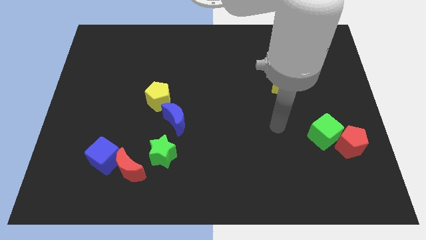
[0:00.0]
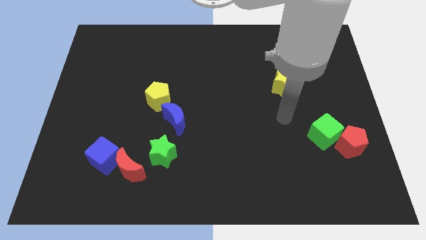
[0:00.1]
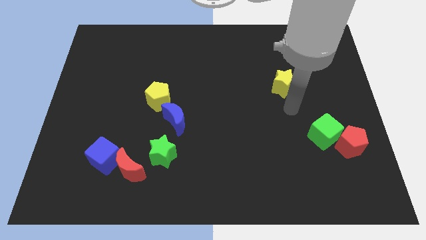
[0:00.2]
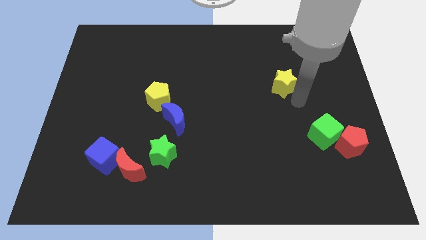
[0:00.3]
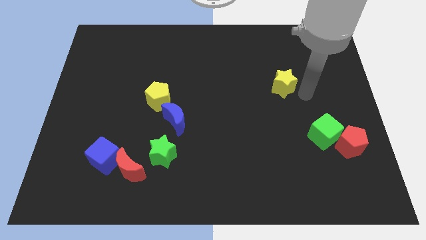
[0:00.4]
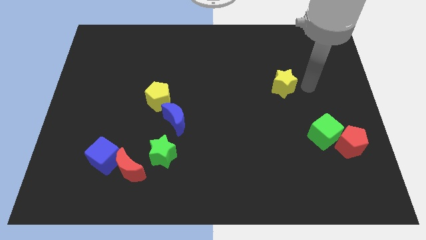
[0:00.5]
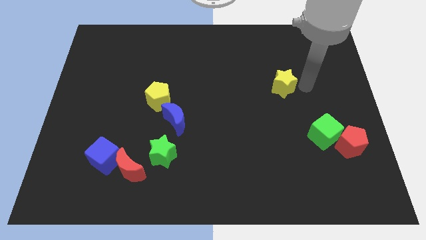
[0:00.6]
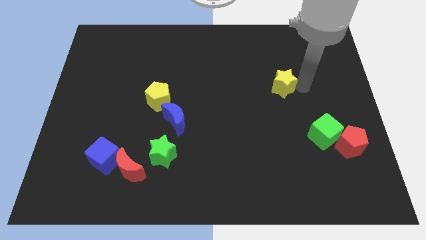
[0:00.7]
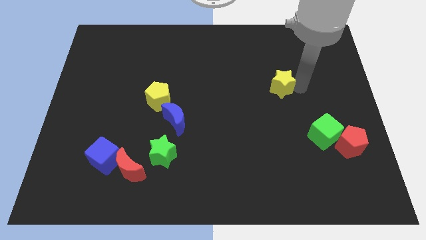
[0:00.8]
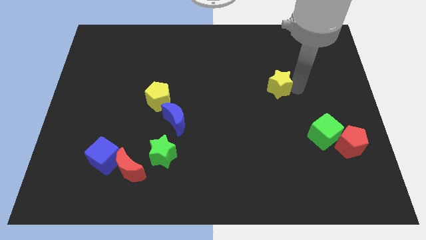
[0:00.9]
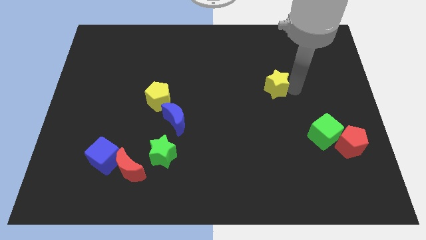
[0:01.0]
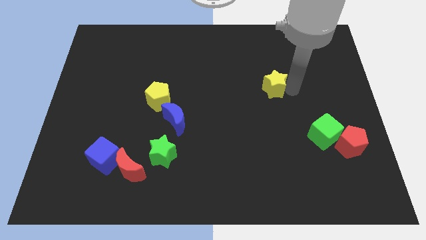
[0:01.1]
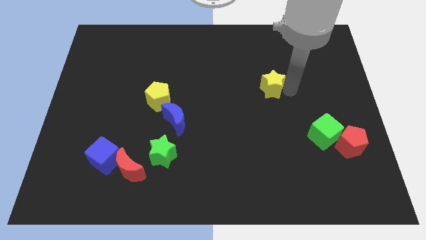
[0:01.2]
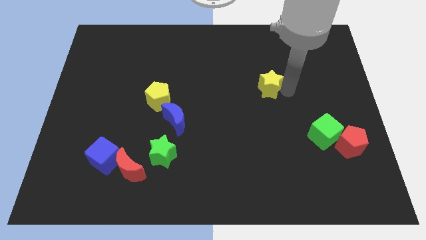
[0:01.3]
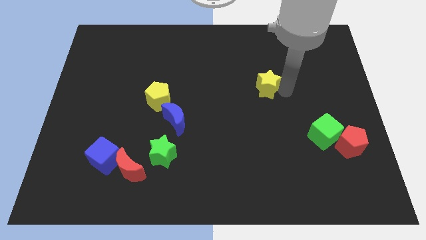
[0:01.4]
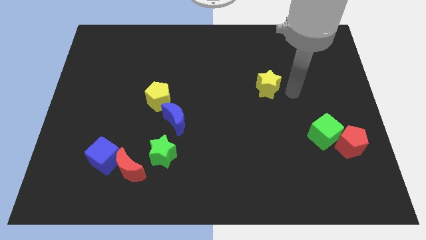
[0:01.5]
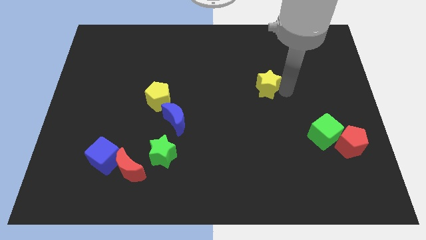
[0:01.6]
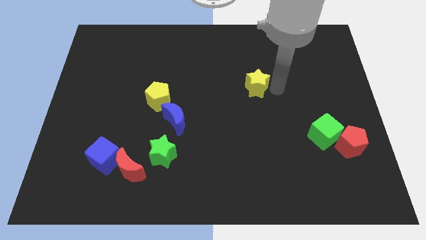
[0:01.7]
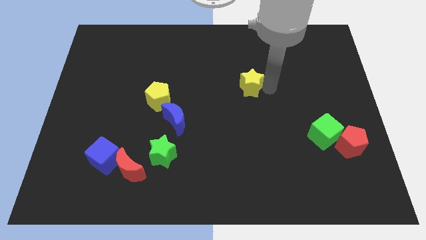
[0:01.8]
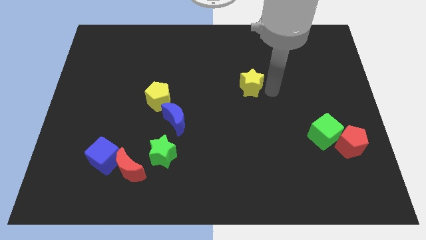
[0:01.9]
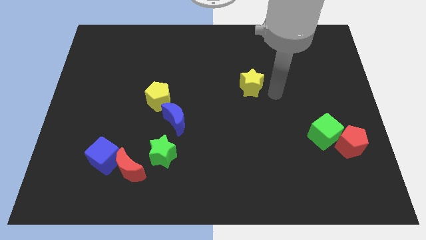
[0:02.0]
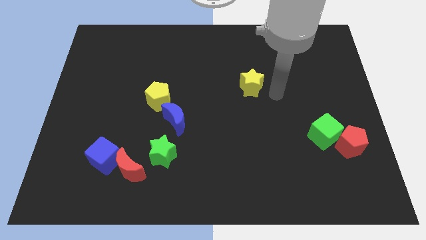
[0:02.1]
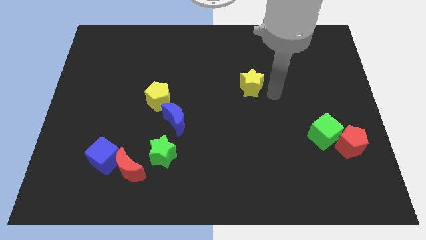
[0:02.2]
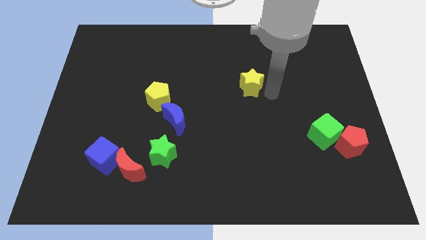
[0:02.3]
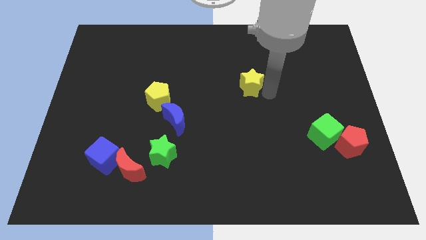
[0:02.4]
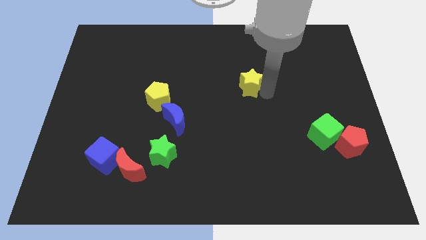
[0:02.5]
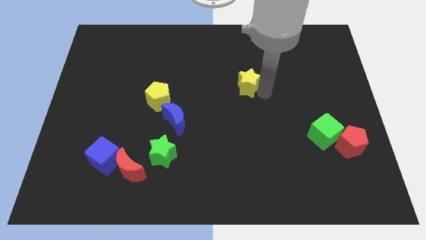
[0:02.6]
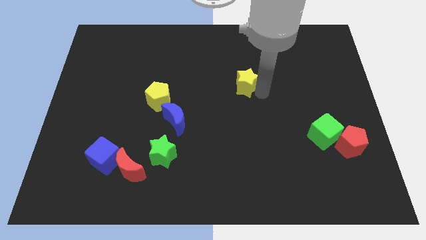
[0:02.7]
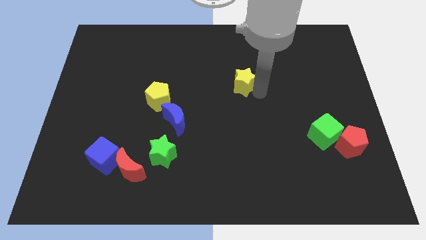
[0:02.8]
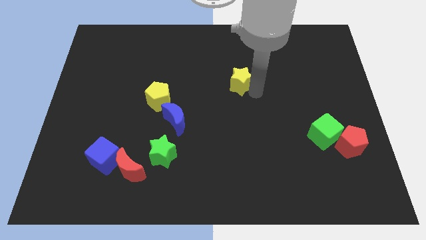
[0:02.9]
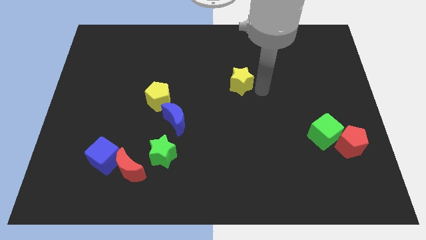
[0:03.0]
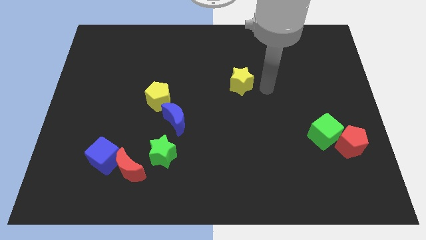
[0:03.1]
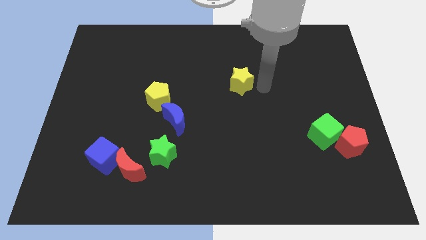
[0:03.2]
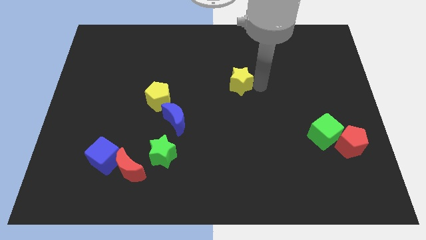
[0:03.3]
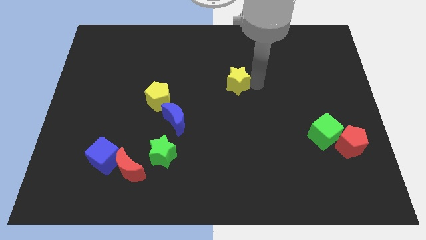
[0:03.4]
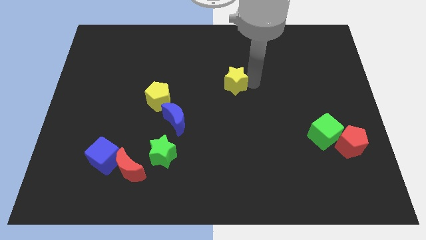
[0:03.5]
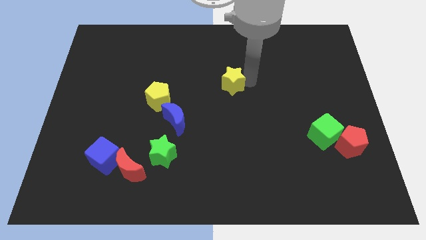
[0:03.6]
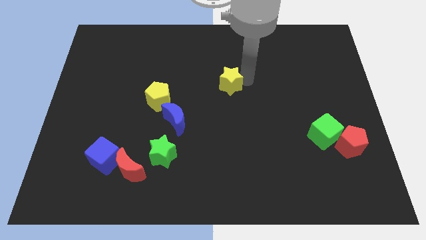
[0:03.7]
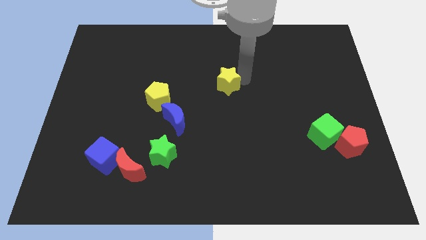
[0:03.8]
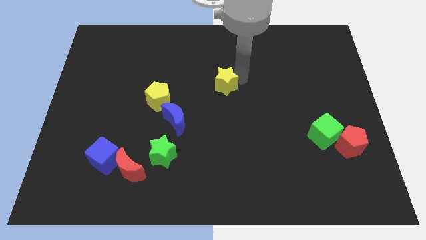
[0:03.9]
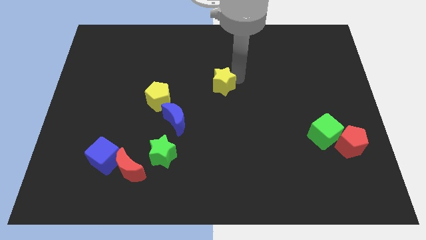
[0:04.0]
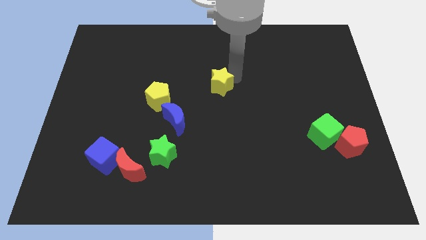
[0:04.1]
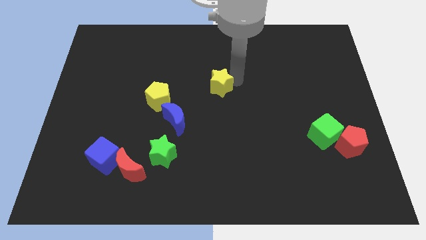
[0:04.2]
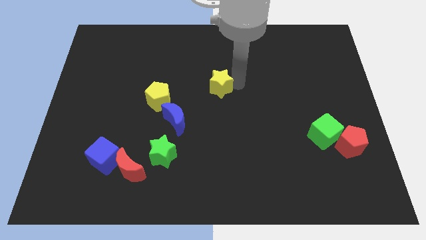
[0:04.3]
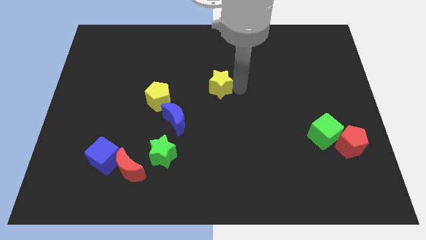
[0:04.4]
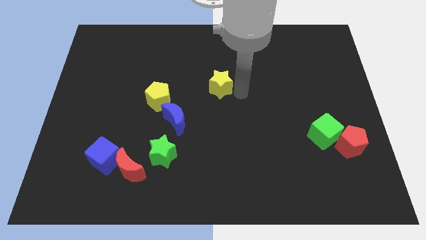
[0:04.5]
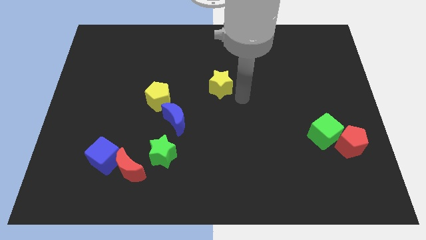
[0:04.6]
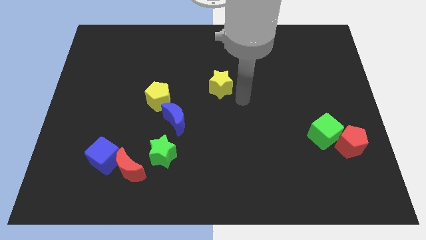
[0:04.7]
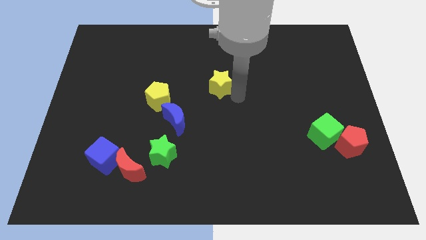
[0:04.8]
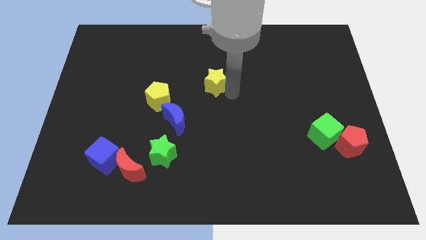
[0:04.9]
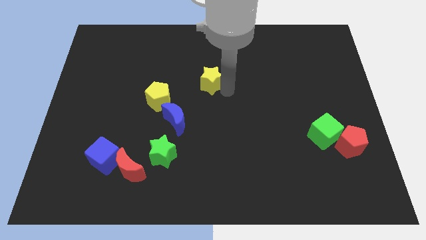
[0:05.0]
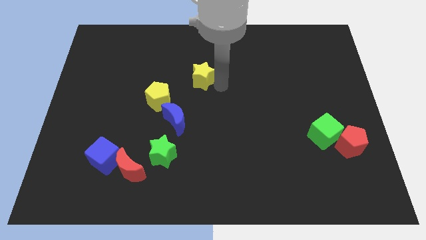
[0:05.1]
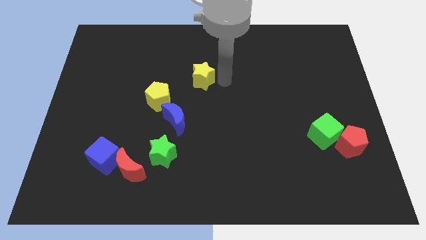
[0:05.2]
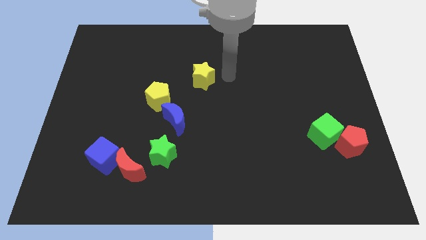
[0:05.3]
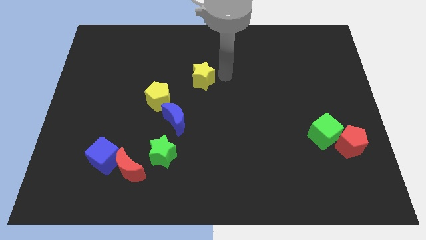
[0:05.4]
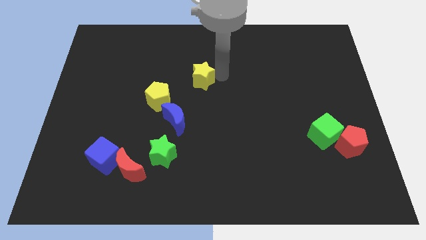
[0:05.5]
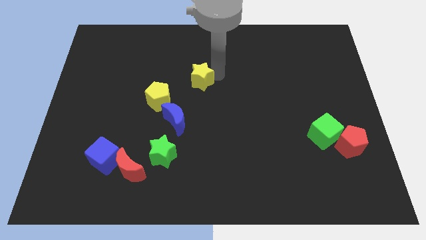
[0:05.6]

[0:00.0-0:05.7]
slide the yellow star left

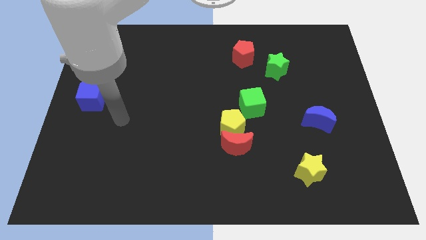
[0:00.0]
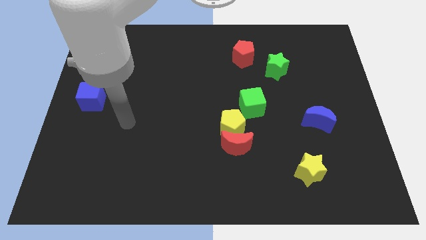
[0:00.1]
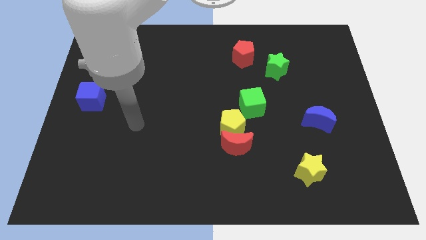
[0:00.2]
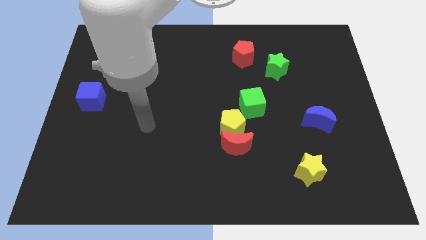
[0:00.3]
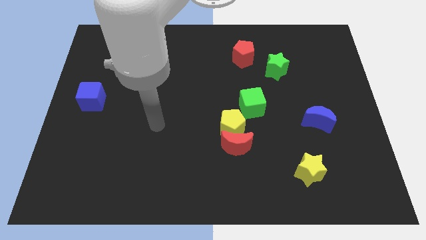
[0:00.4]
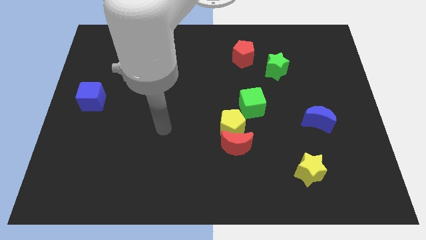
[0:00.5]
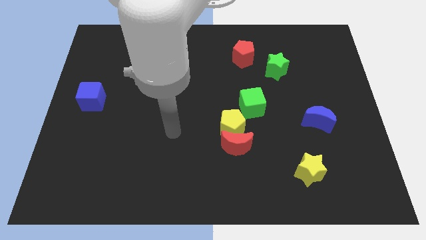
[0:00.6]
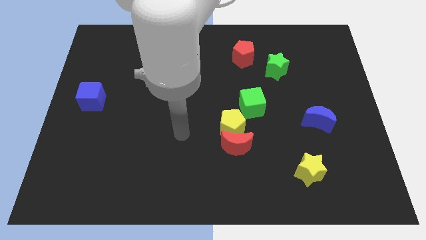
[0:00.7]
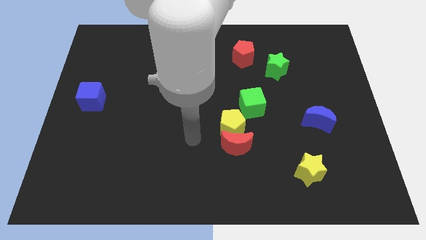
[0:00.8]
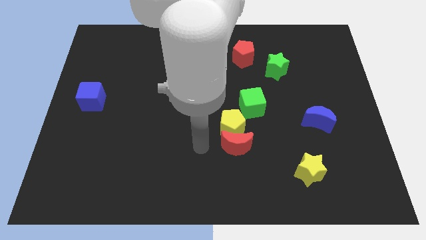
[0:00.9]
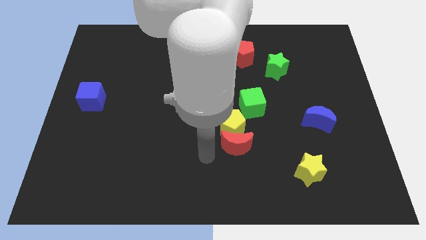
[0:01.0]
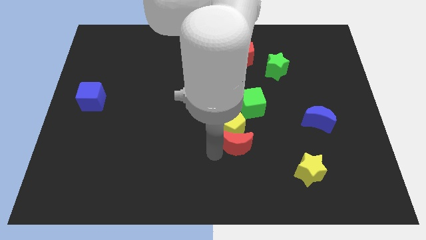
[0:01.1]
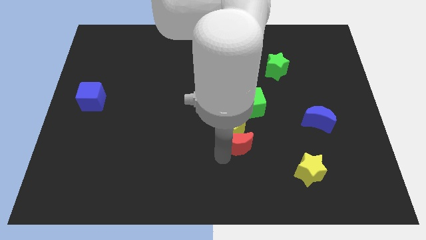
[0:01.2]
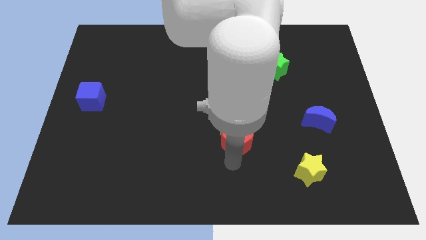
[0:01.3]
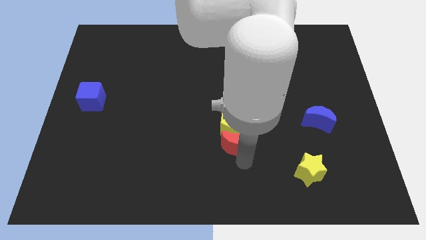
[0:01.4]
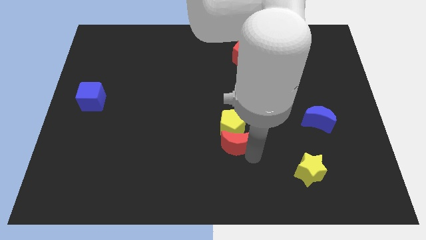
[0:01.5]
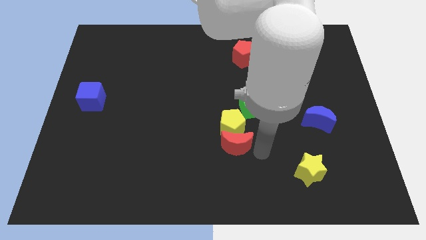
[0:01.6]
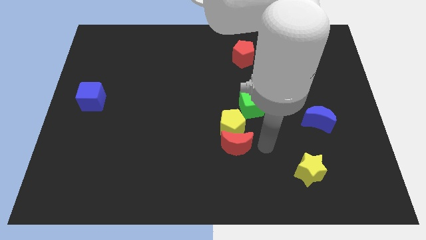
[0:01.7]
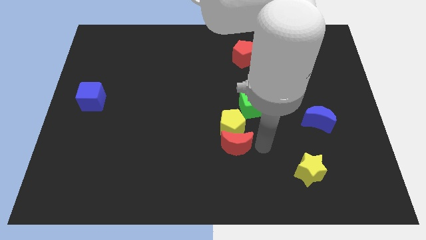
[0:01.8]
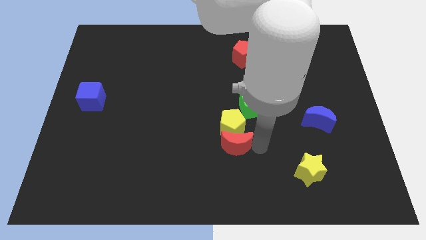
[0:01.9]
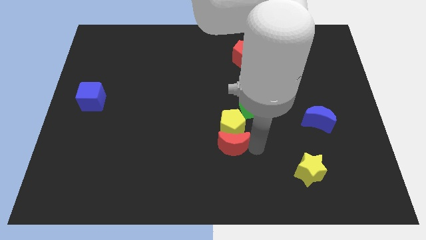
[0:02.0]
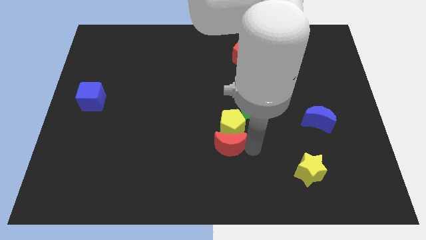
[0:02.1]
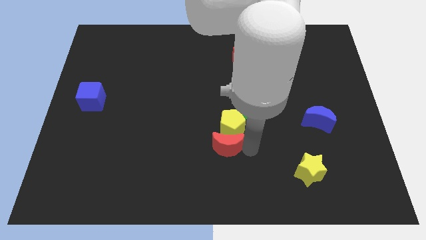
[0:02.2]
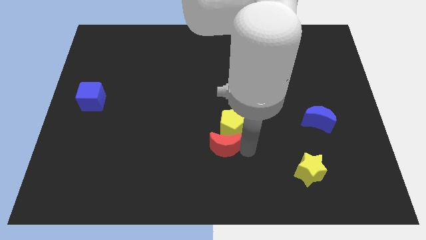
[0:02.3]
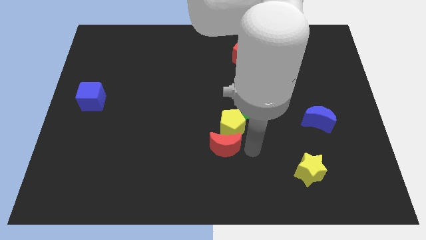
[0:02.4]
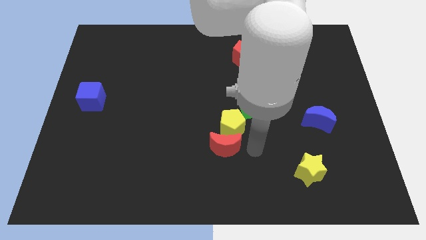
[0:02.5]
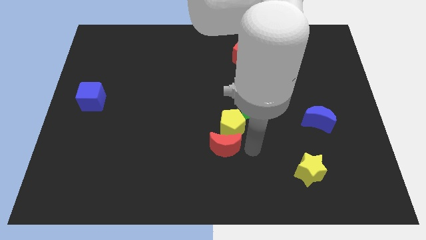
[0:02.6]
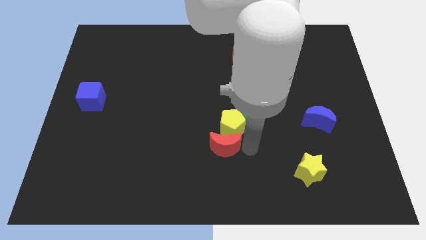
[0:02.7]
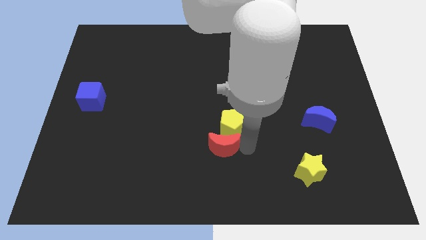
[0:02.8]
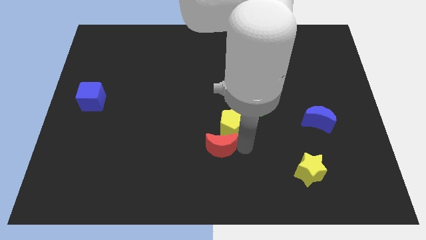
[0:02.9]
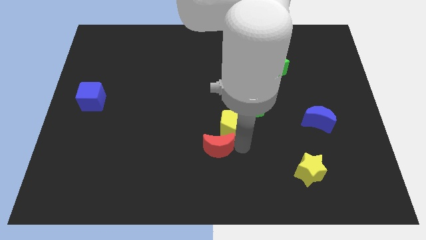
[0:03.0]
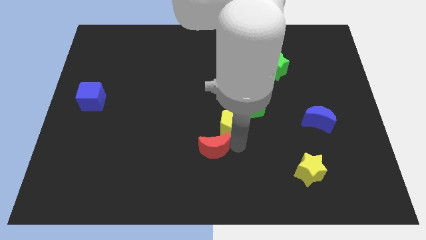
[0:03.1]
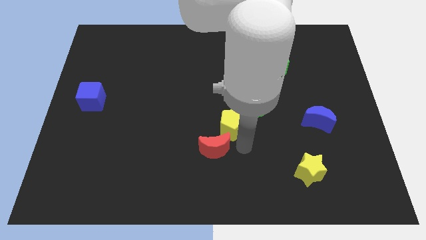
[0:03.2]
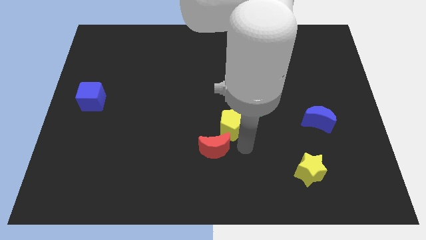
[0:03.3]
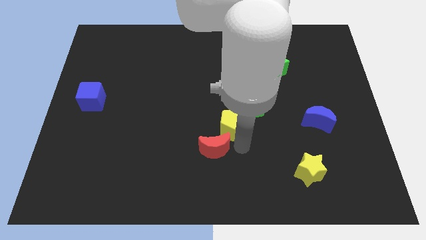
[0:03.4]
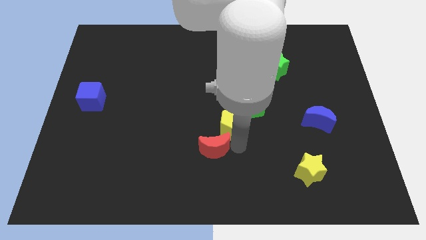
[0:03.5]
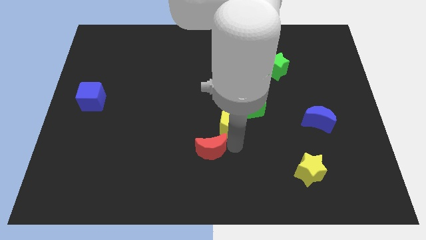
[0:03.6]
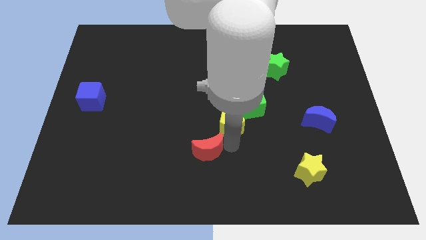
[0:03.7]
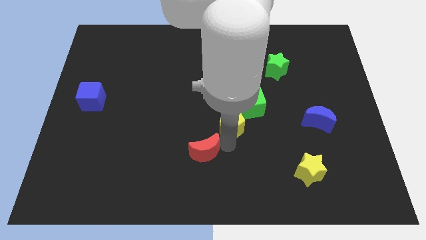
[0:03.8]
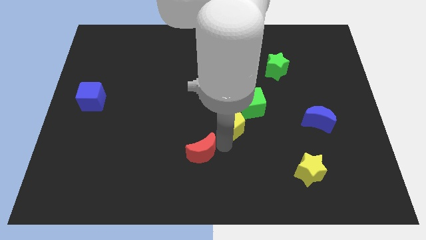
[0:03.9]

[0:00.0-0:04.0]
slide the red moon to the left slightly
